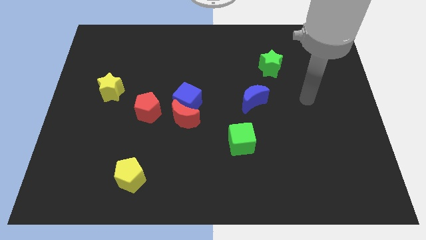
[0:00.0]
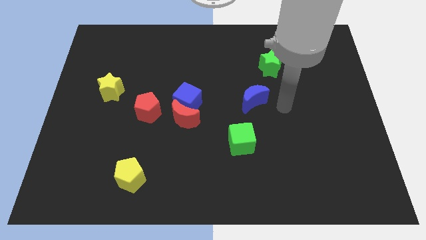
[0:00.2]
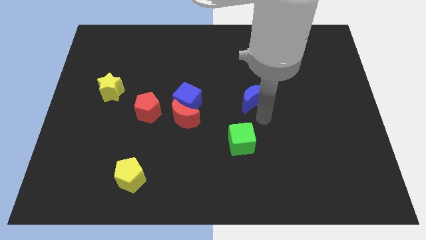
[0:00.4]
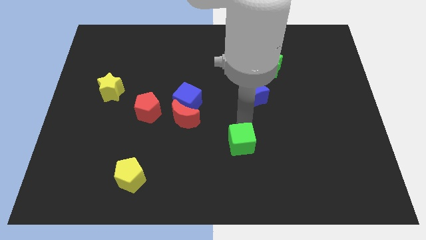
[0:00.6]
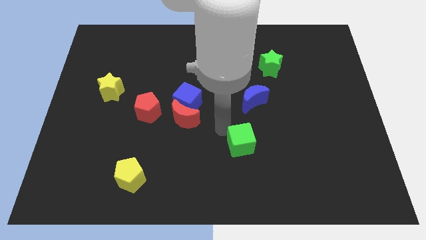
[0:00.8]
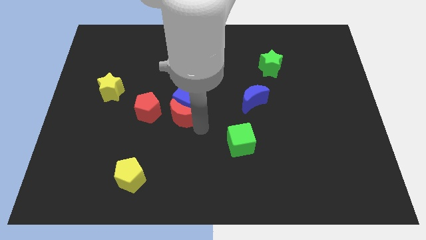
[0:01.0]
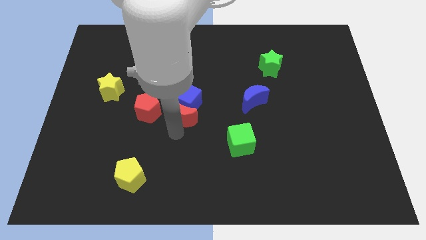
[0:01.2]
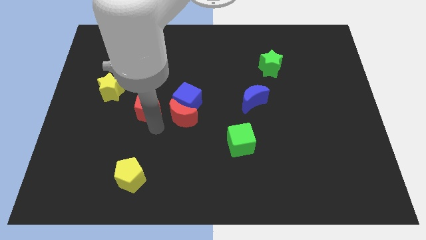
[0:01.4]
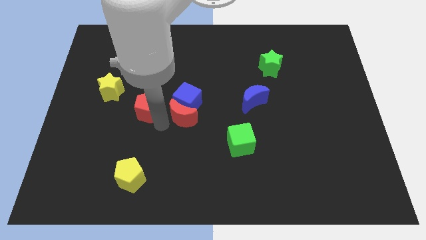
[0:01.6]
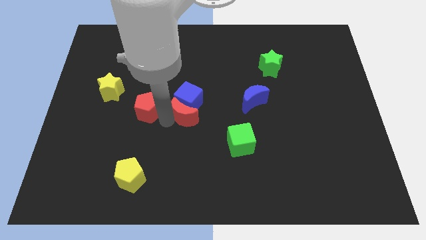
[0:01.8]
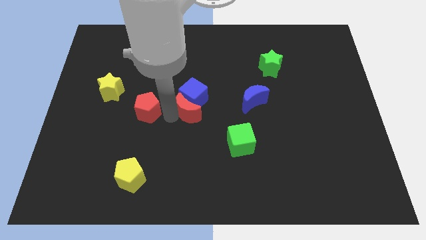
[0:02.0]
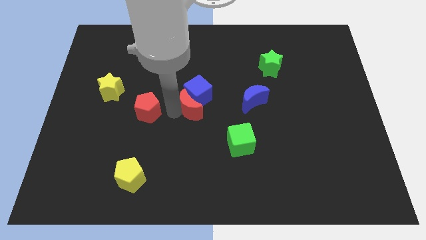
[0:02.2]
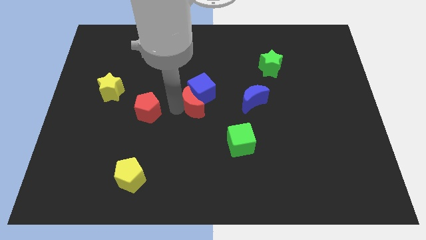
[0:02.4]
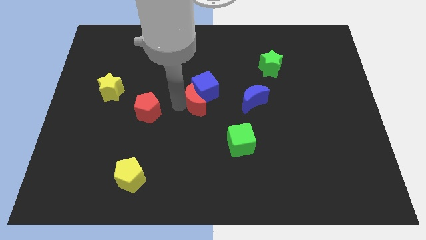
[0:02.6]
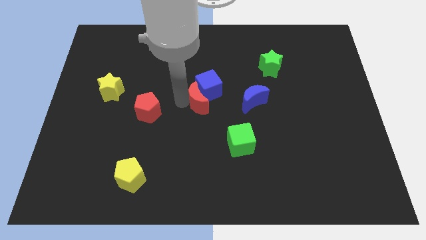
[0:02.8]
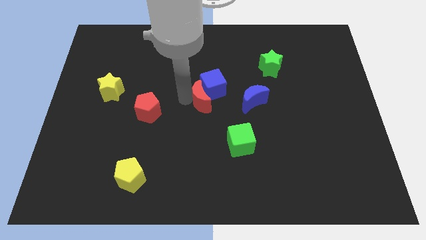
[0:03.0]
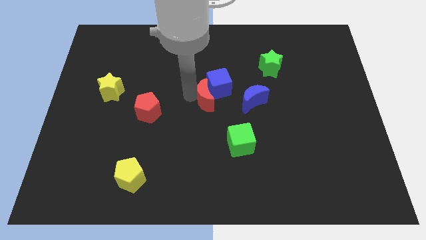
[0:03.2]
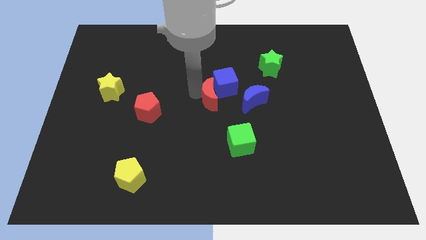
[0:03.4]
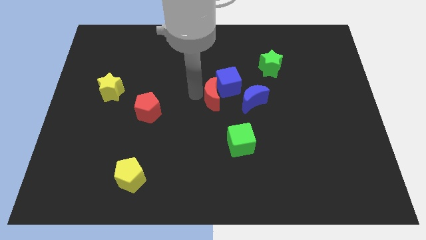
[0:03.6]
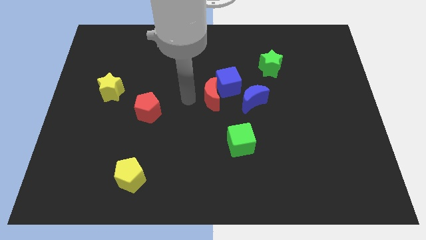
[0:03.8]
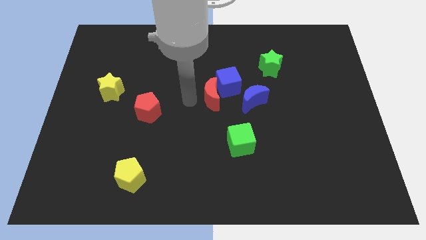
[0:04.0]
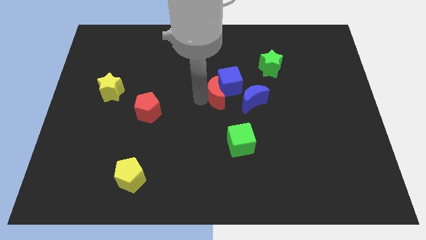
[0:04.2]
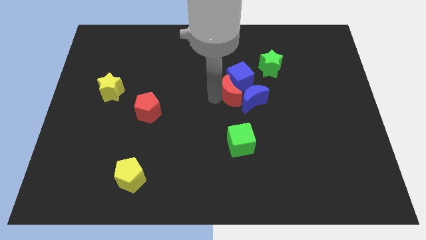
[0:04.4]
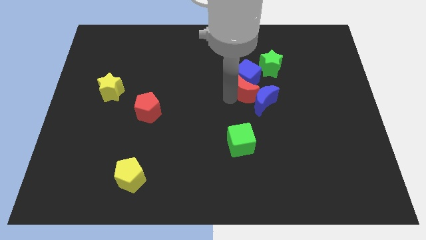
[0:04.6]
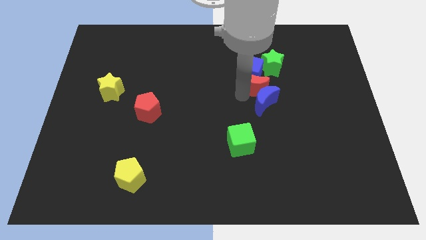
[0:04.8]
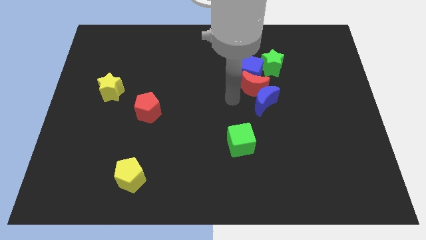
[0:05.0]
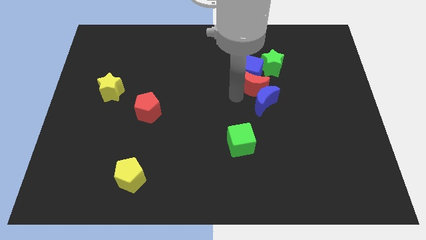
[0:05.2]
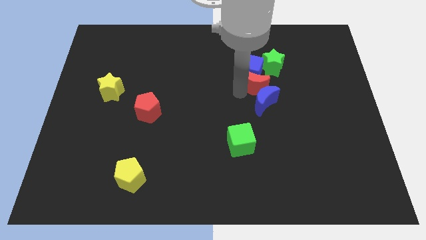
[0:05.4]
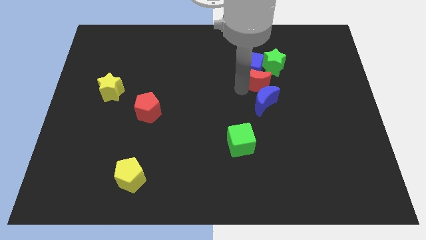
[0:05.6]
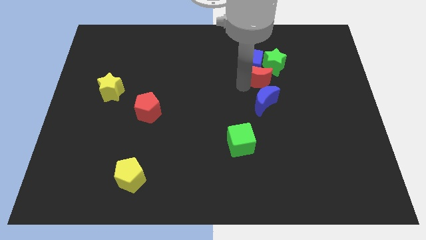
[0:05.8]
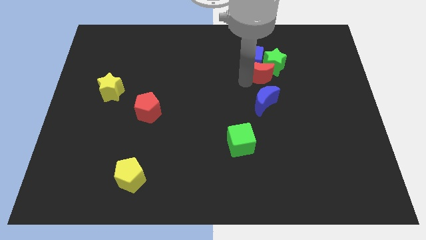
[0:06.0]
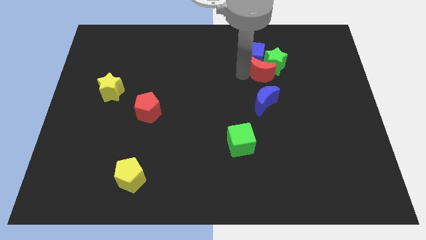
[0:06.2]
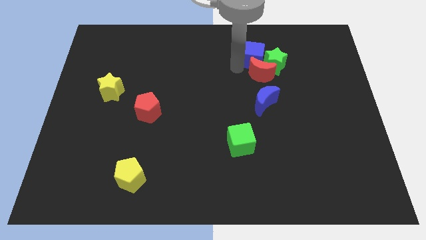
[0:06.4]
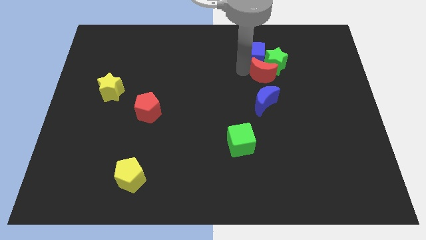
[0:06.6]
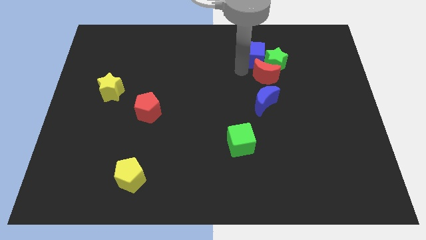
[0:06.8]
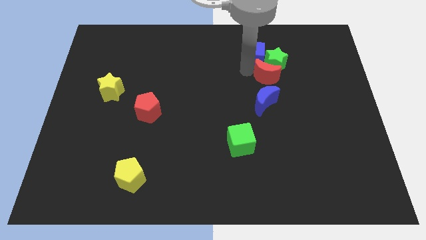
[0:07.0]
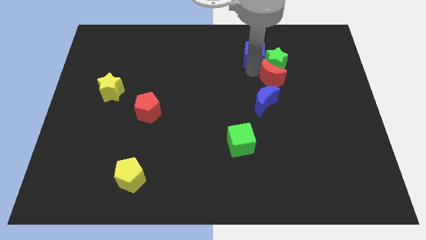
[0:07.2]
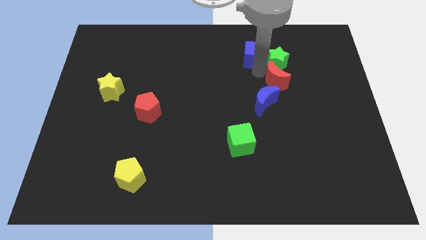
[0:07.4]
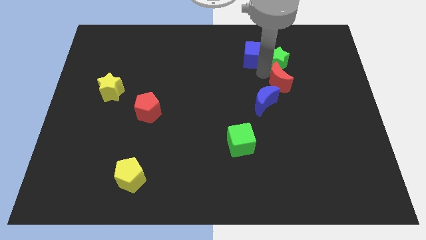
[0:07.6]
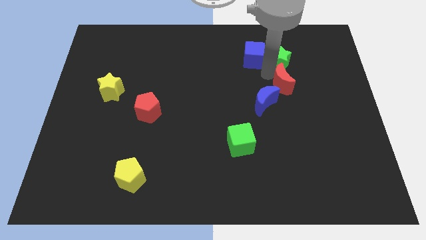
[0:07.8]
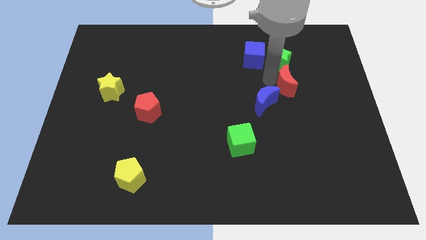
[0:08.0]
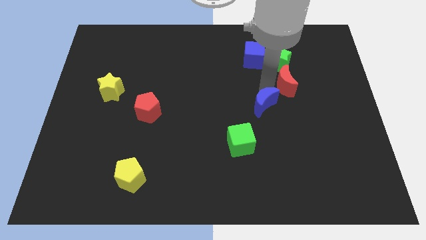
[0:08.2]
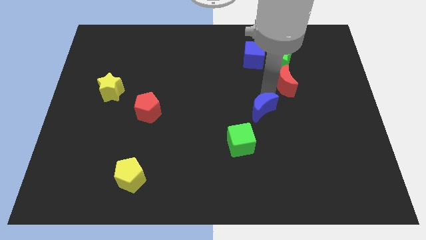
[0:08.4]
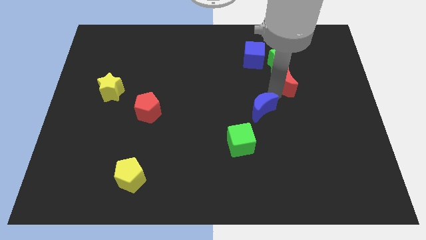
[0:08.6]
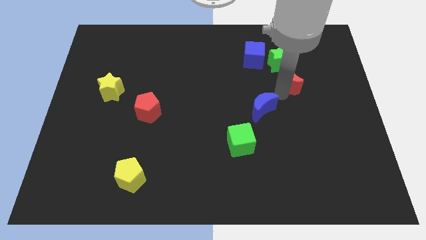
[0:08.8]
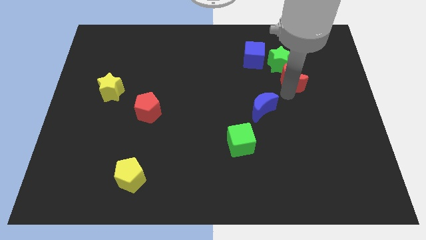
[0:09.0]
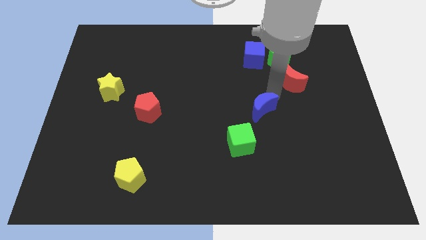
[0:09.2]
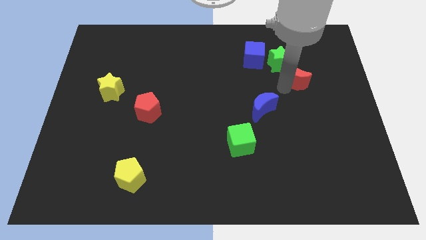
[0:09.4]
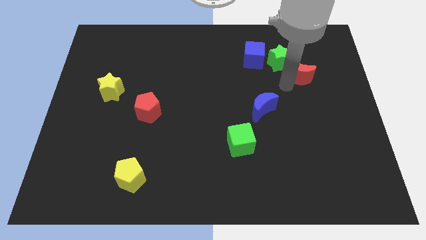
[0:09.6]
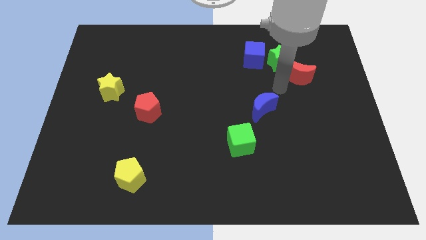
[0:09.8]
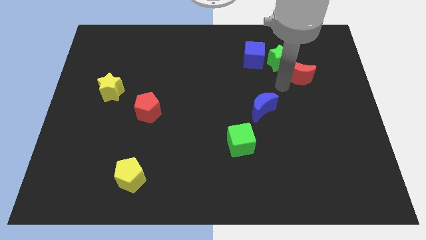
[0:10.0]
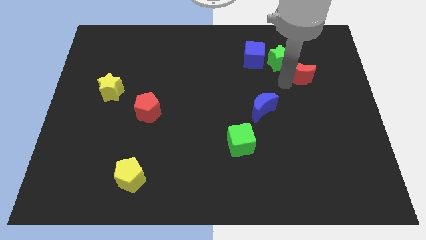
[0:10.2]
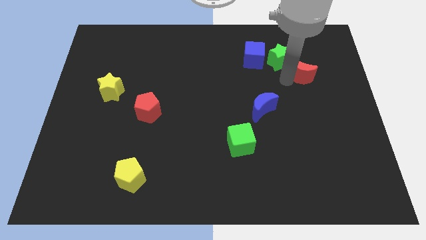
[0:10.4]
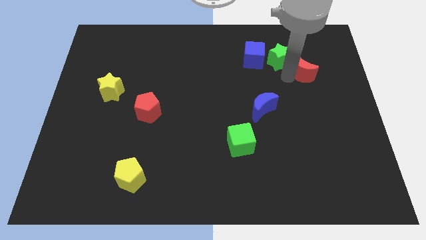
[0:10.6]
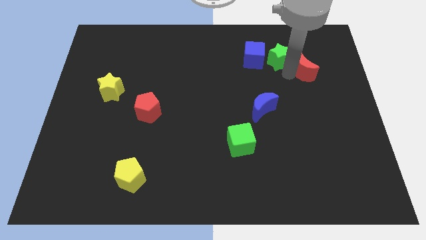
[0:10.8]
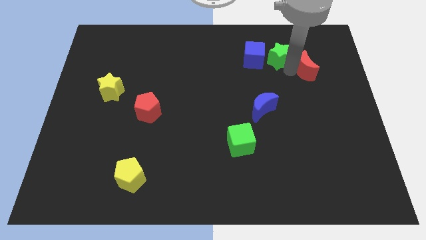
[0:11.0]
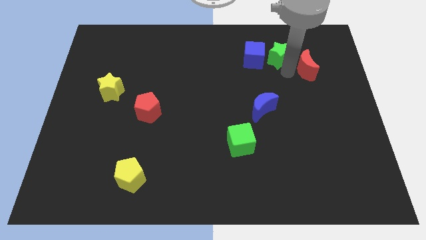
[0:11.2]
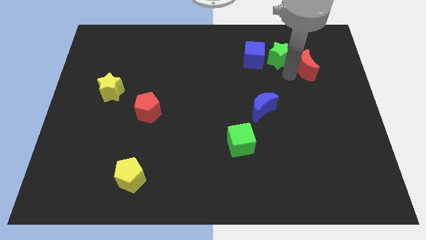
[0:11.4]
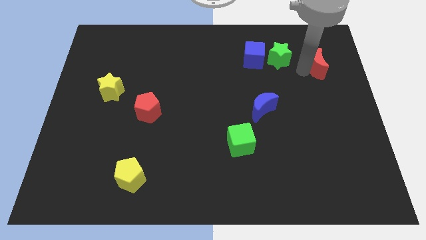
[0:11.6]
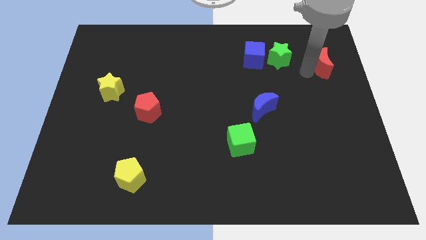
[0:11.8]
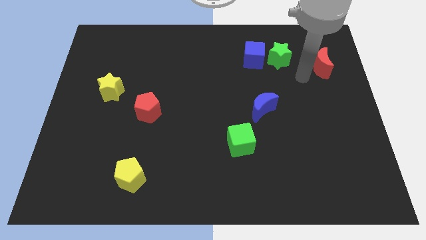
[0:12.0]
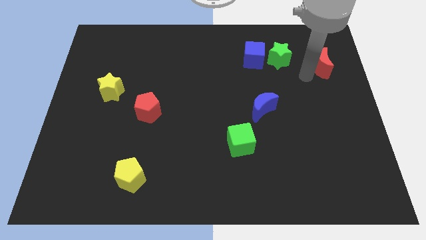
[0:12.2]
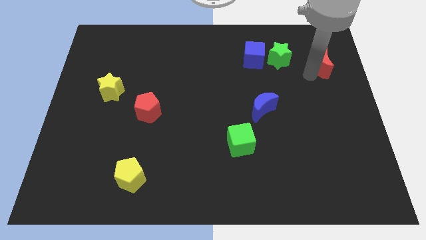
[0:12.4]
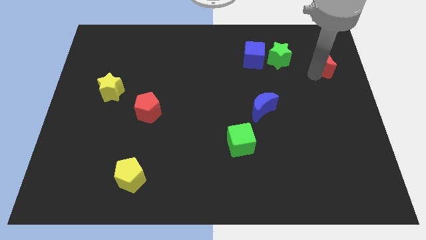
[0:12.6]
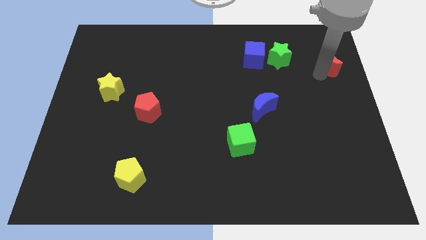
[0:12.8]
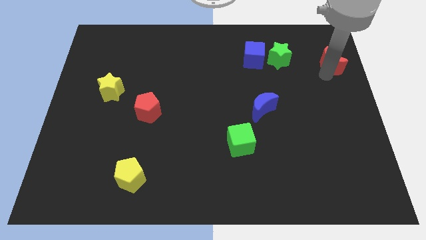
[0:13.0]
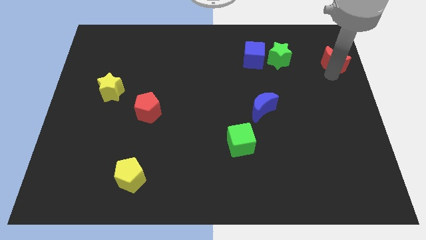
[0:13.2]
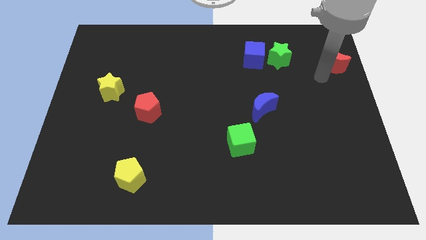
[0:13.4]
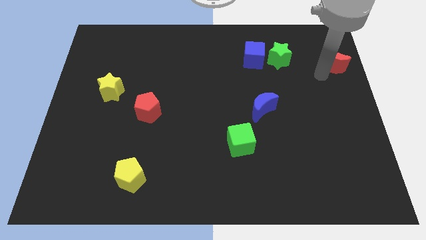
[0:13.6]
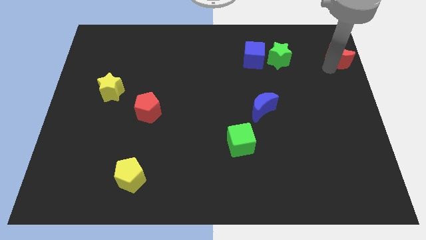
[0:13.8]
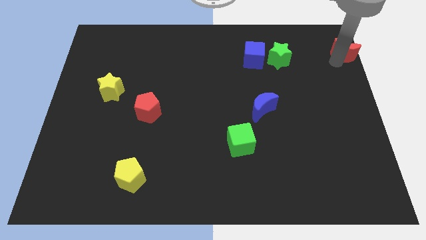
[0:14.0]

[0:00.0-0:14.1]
push the red moon to the top right corner
